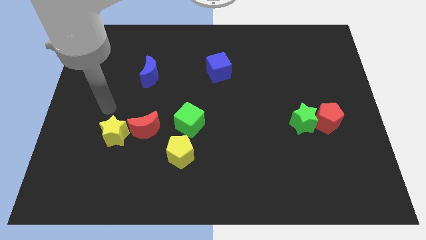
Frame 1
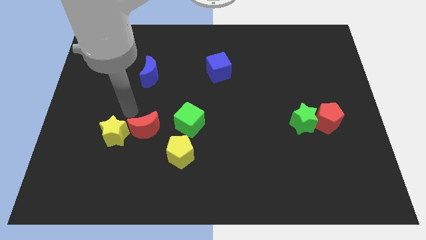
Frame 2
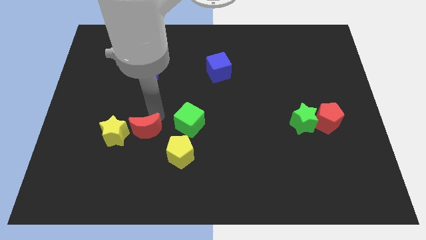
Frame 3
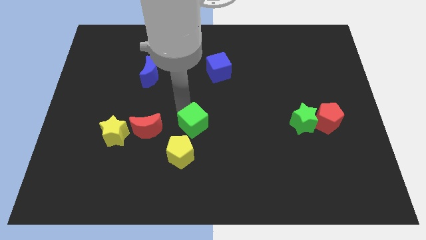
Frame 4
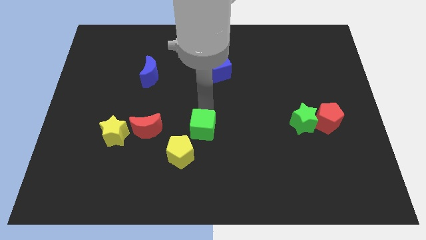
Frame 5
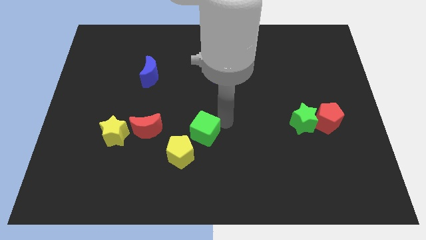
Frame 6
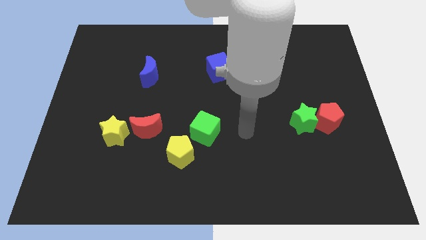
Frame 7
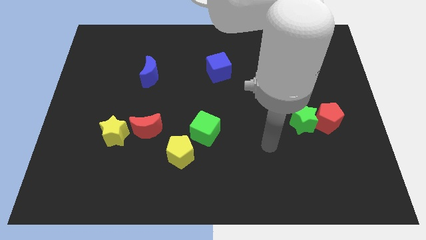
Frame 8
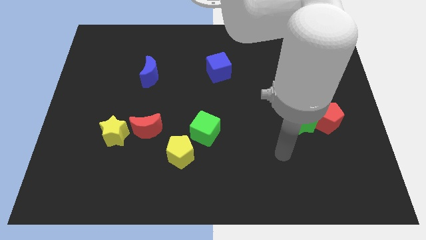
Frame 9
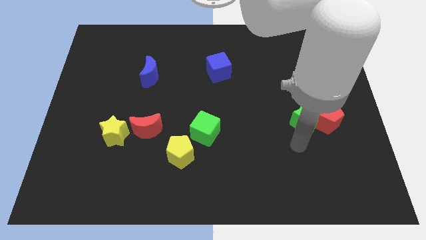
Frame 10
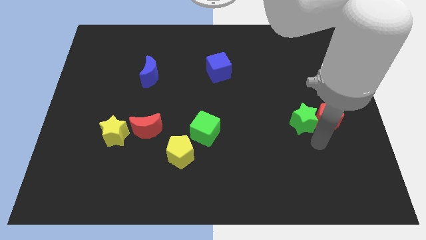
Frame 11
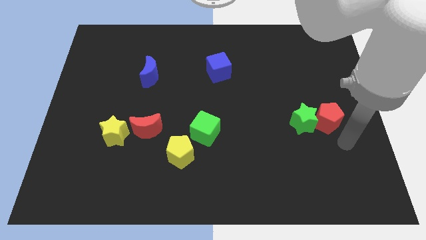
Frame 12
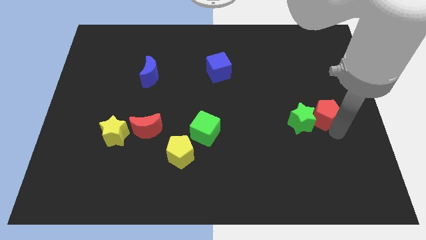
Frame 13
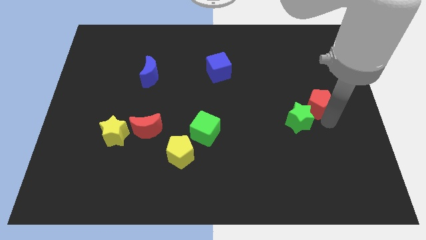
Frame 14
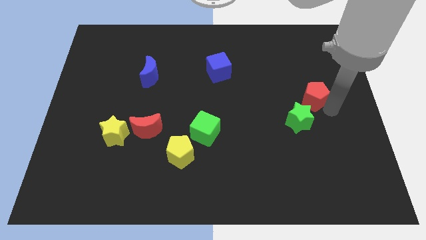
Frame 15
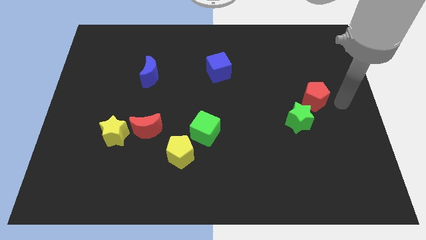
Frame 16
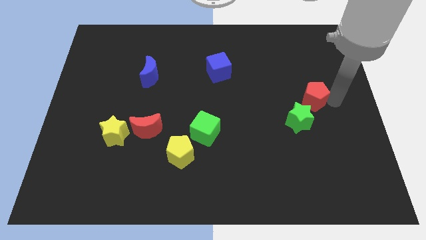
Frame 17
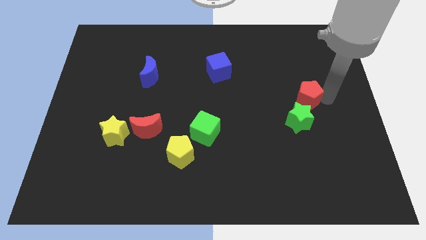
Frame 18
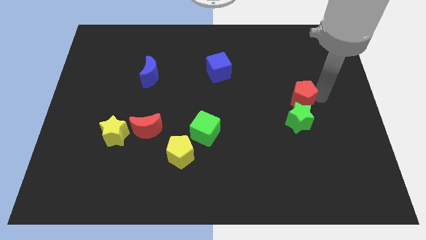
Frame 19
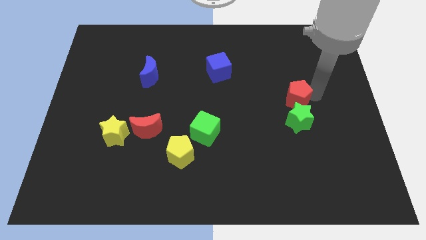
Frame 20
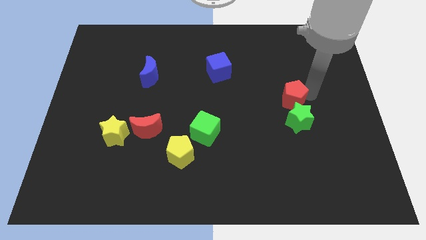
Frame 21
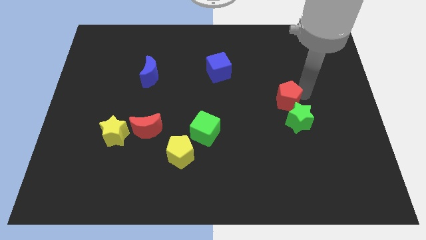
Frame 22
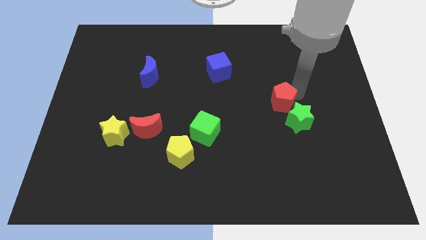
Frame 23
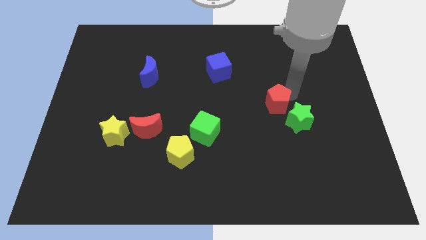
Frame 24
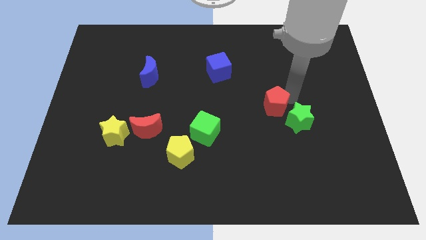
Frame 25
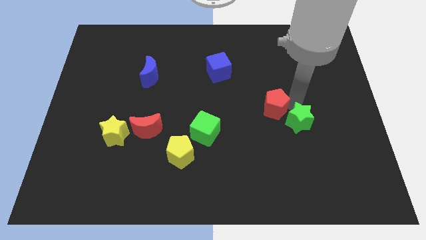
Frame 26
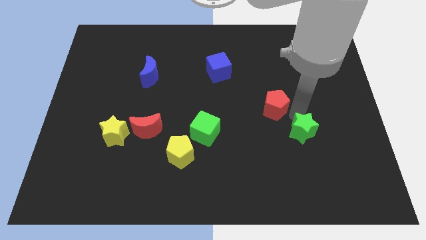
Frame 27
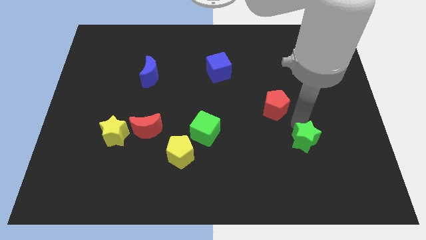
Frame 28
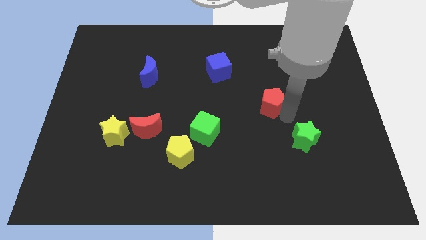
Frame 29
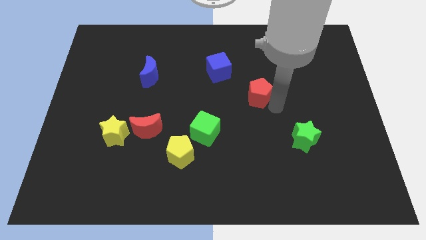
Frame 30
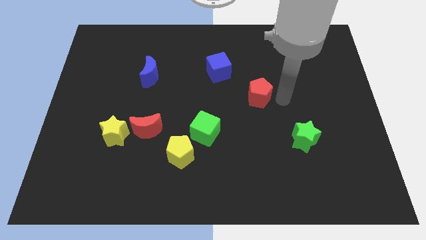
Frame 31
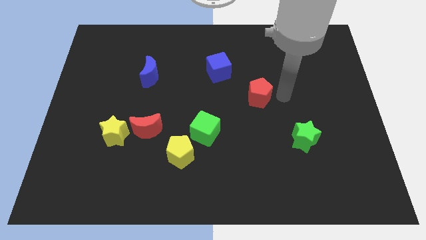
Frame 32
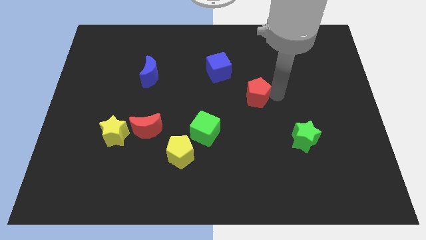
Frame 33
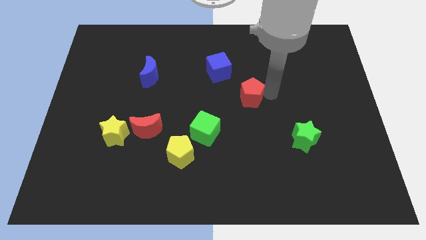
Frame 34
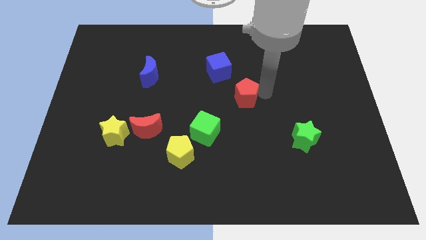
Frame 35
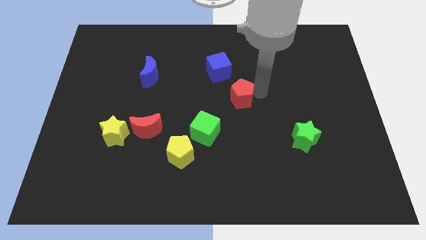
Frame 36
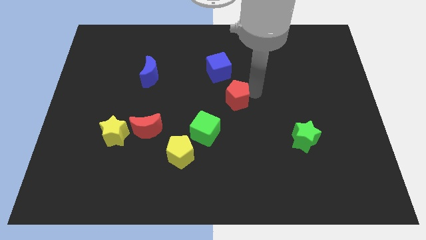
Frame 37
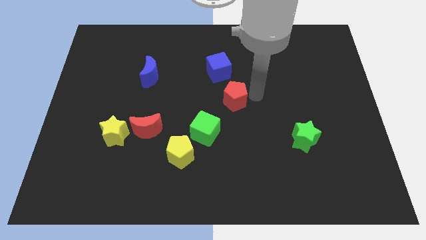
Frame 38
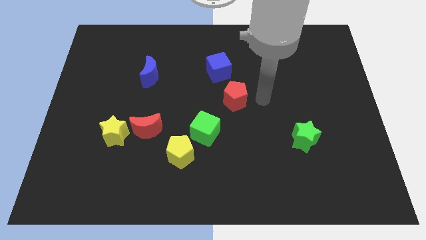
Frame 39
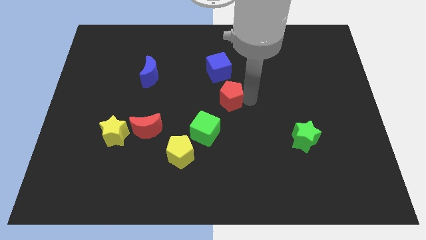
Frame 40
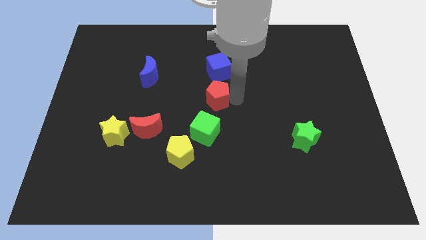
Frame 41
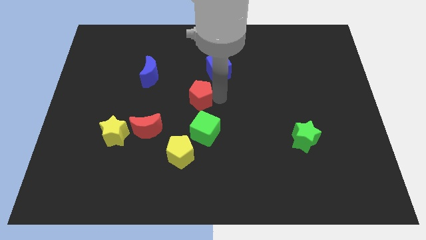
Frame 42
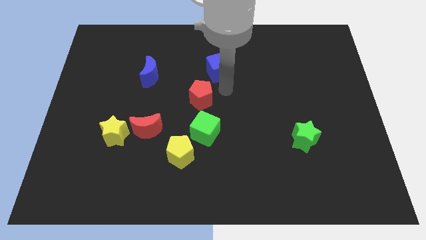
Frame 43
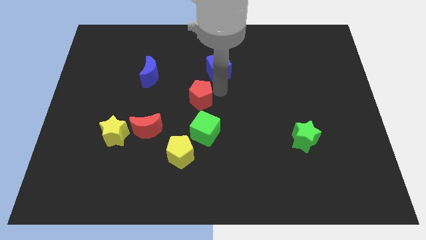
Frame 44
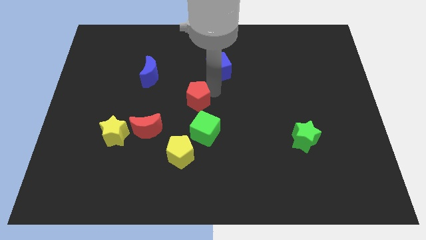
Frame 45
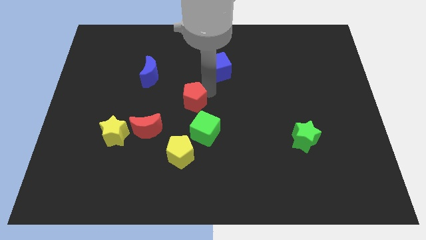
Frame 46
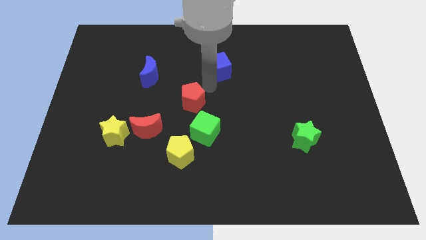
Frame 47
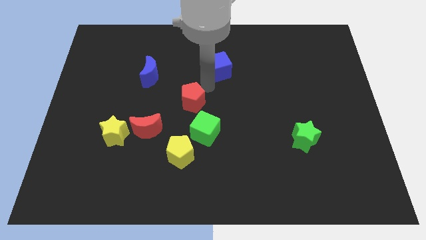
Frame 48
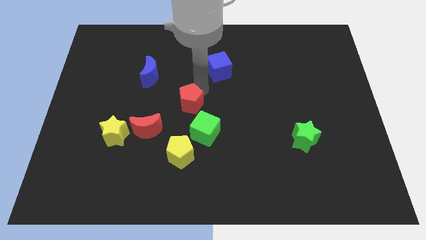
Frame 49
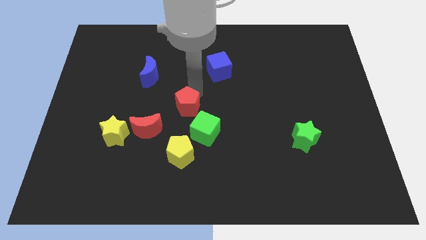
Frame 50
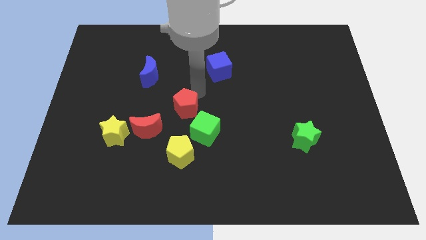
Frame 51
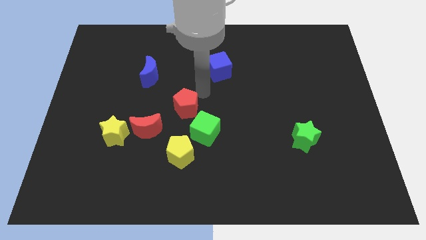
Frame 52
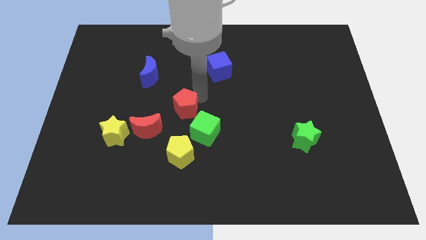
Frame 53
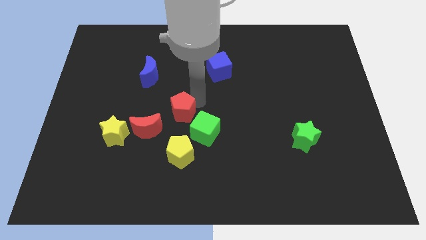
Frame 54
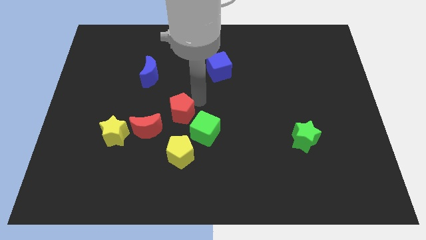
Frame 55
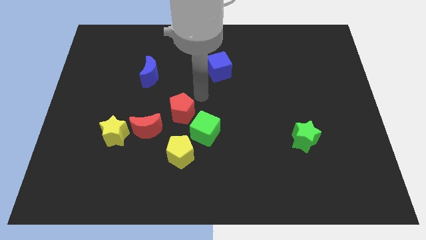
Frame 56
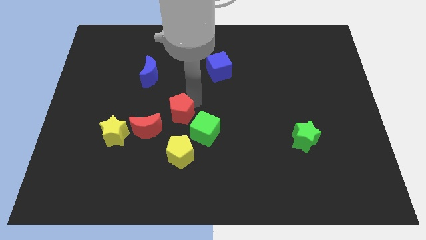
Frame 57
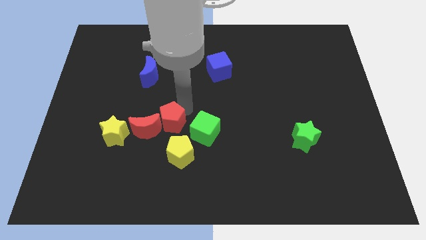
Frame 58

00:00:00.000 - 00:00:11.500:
put the red pentagon right of the yellow star

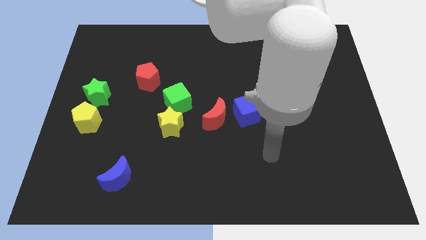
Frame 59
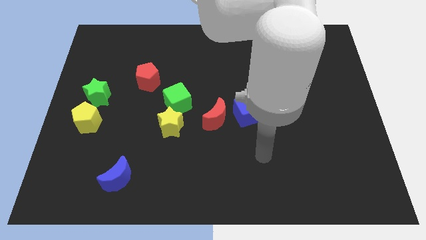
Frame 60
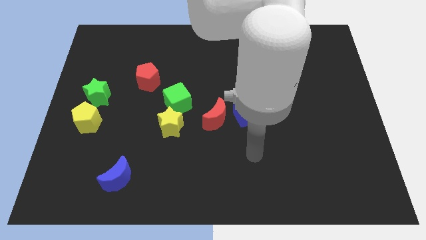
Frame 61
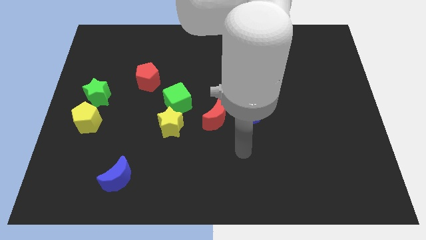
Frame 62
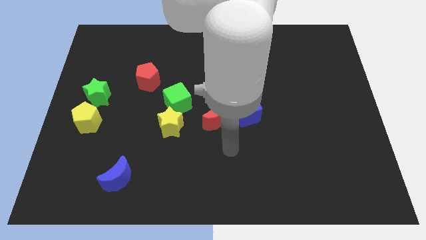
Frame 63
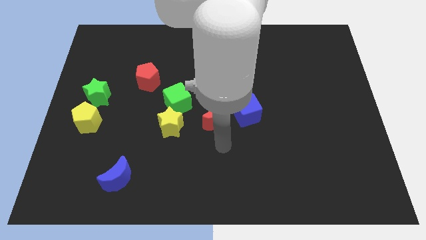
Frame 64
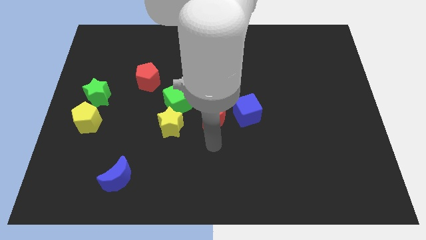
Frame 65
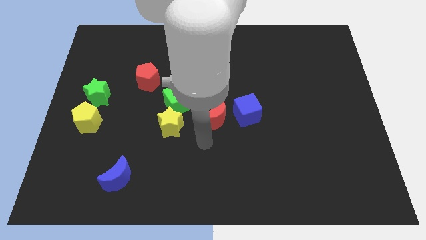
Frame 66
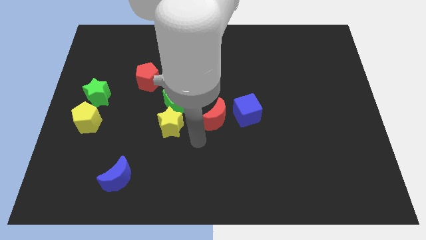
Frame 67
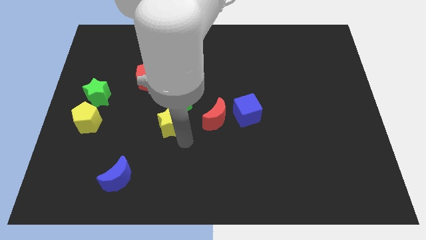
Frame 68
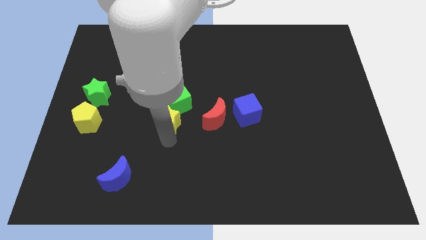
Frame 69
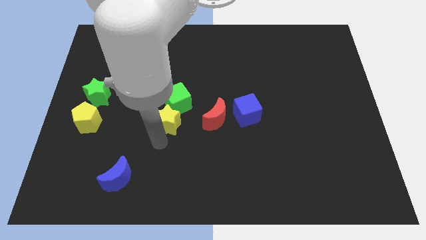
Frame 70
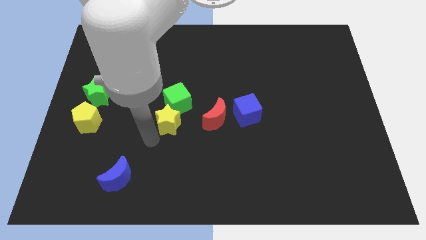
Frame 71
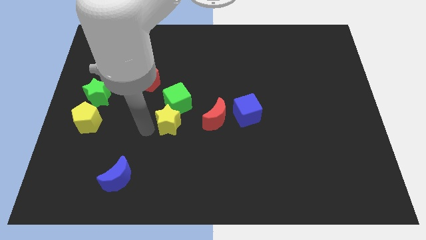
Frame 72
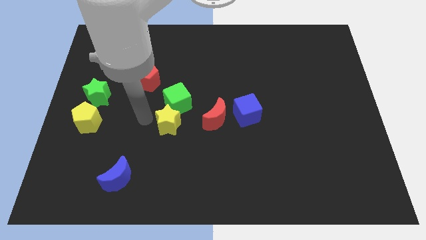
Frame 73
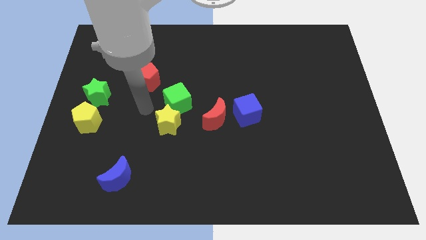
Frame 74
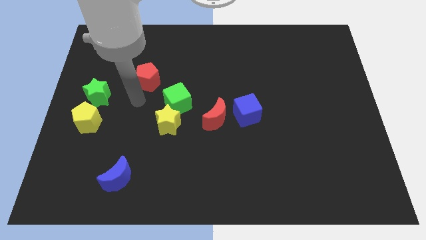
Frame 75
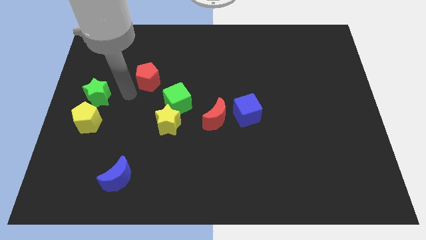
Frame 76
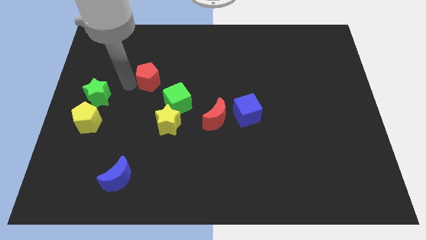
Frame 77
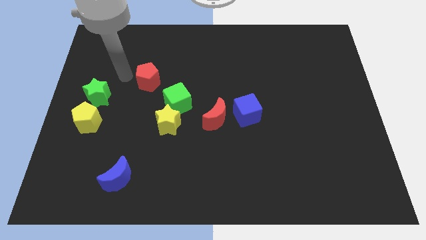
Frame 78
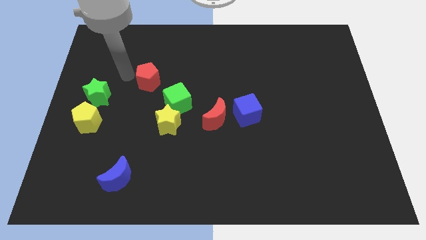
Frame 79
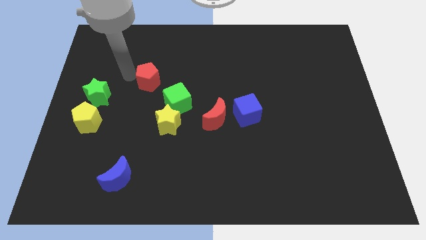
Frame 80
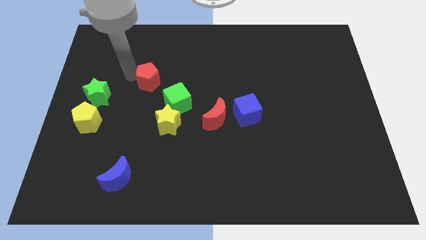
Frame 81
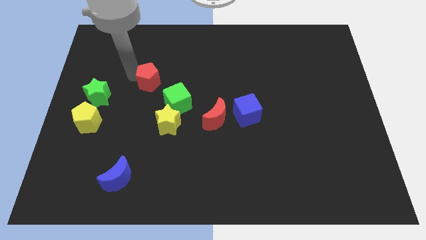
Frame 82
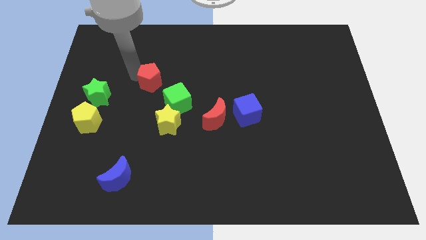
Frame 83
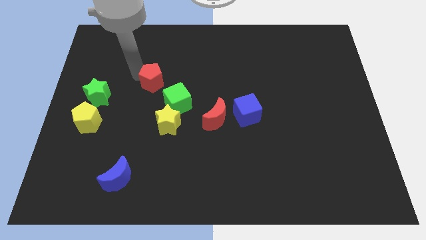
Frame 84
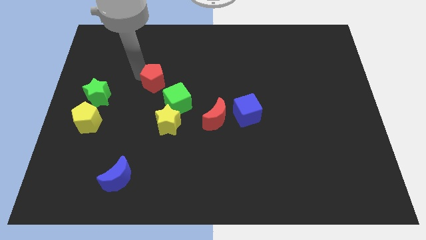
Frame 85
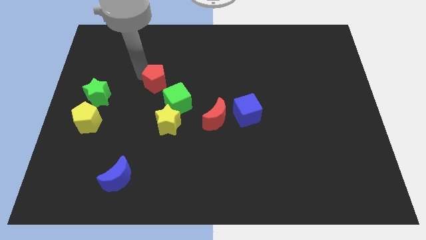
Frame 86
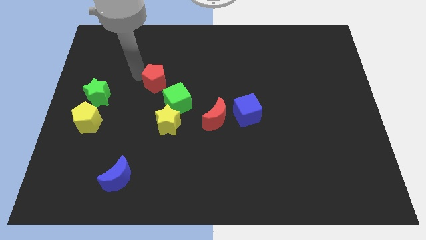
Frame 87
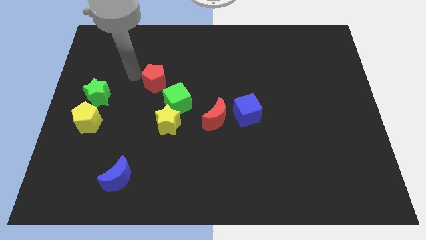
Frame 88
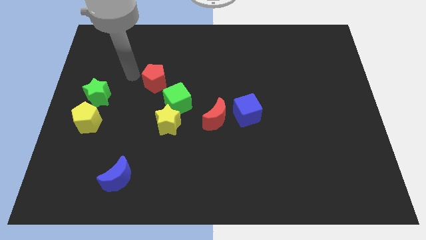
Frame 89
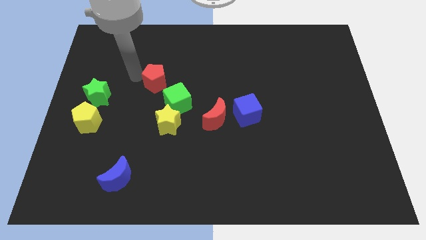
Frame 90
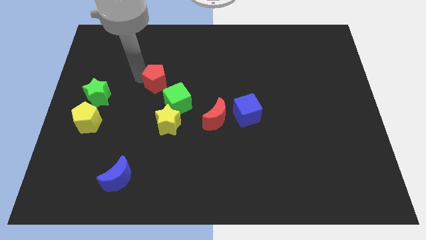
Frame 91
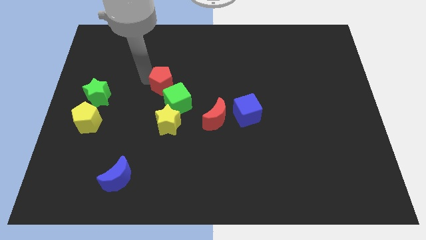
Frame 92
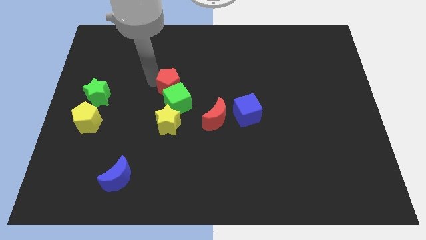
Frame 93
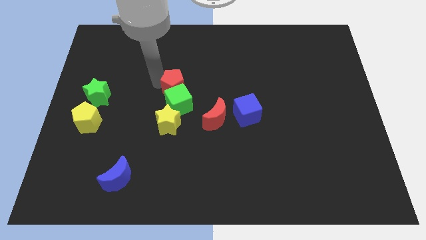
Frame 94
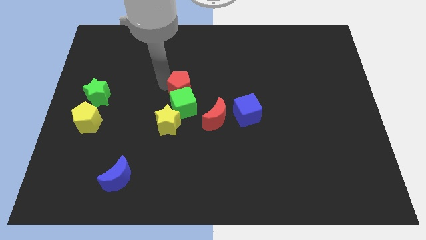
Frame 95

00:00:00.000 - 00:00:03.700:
push the red pentagon diagonally up and to the left of the red moon
